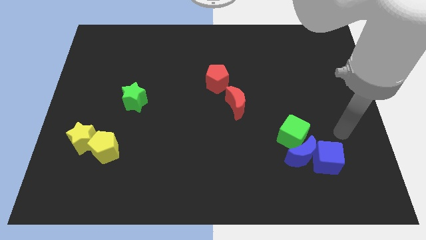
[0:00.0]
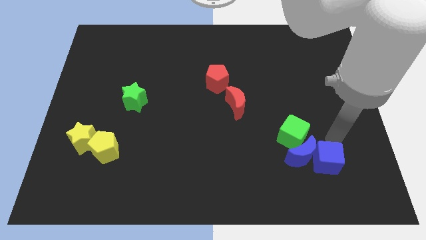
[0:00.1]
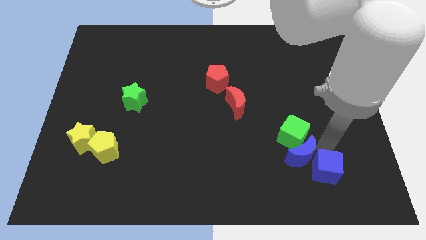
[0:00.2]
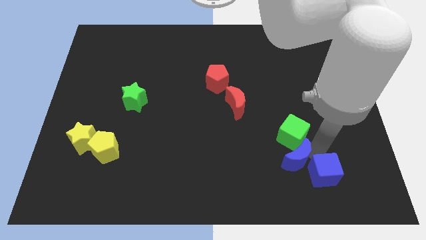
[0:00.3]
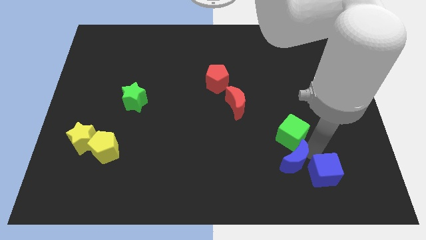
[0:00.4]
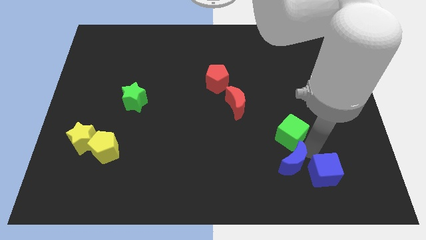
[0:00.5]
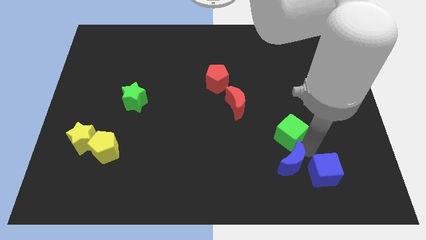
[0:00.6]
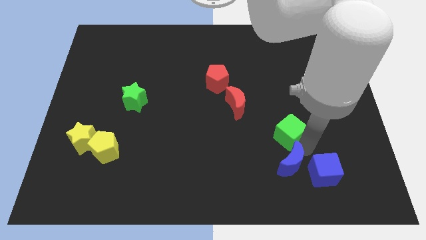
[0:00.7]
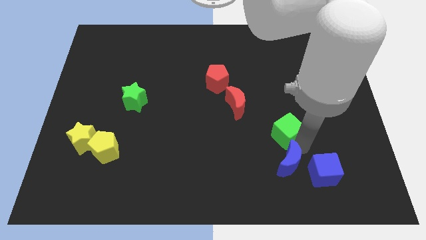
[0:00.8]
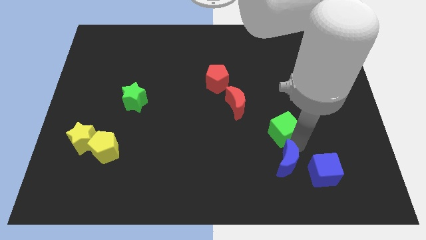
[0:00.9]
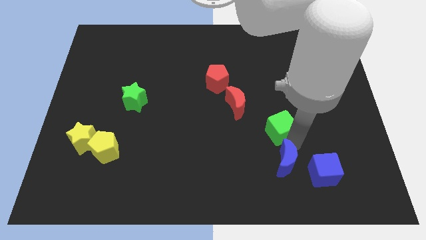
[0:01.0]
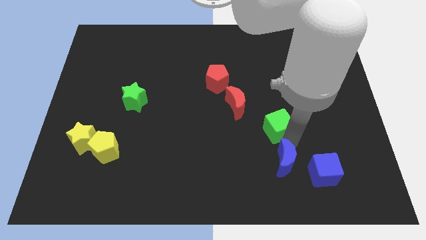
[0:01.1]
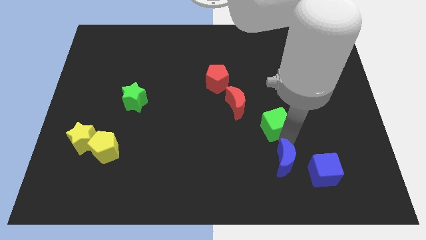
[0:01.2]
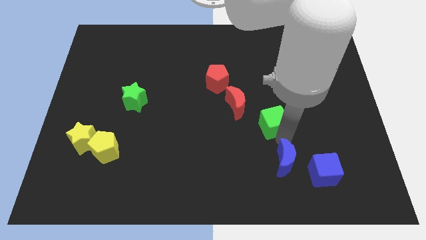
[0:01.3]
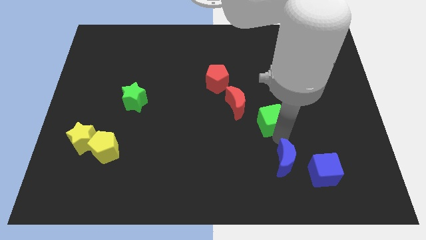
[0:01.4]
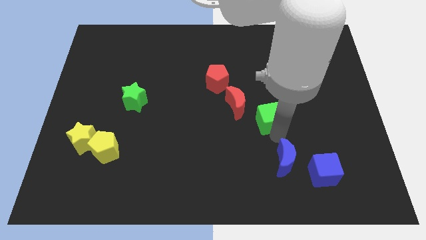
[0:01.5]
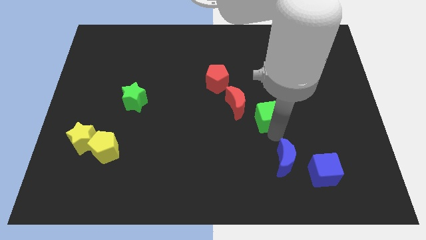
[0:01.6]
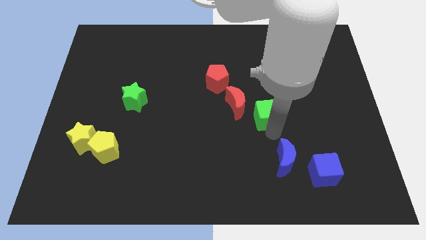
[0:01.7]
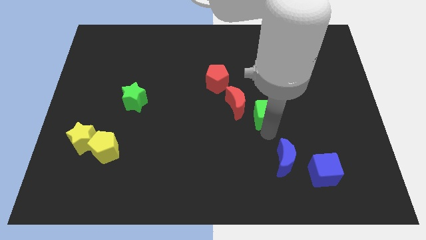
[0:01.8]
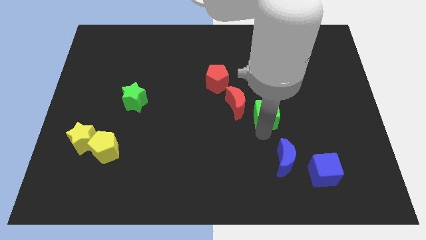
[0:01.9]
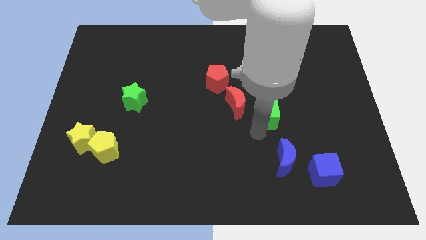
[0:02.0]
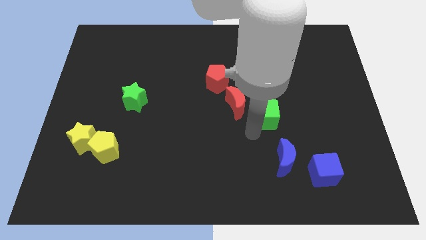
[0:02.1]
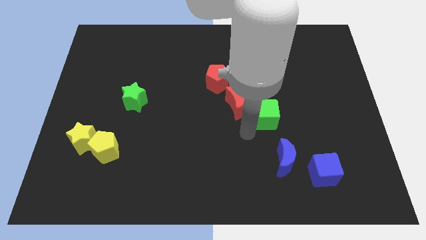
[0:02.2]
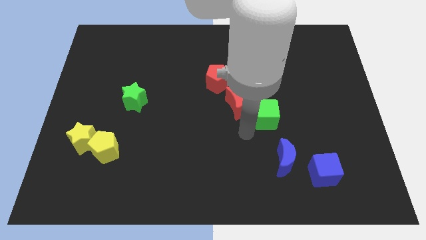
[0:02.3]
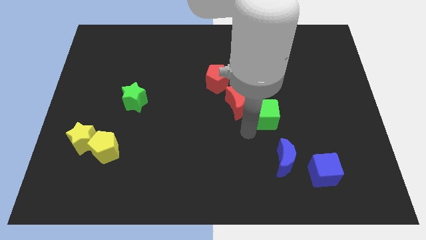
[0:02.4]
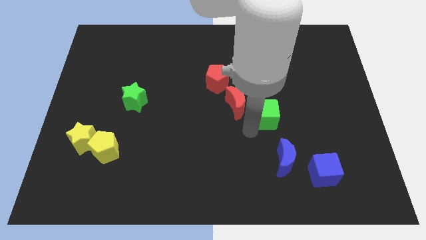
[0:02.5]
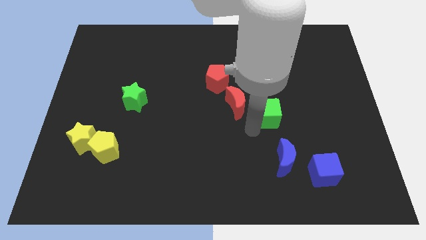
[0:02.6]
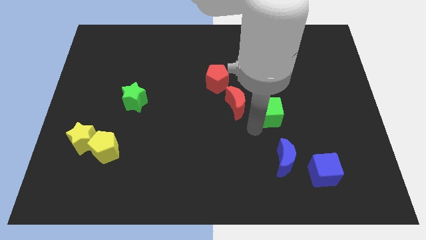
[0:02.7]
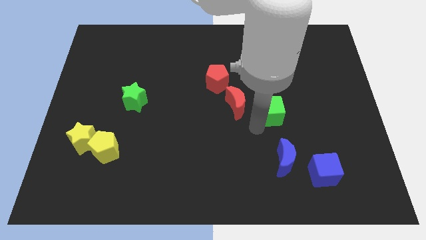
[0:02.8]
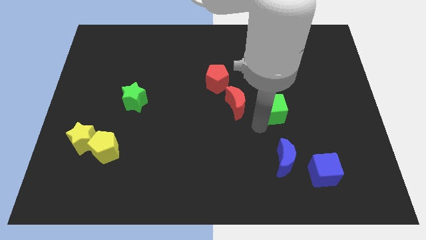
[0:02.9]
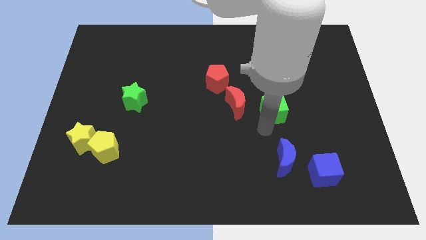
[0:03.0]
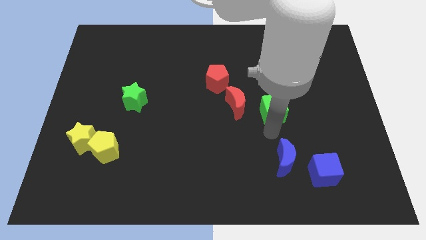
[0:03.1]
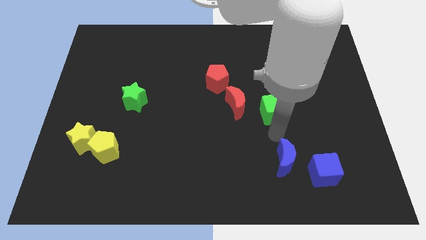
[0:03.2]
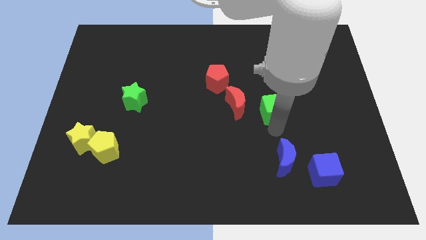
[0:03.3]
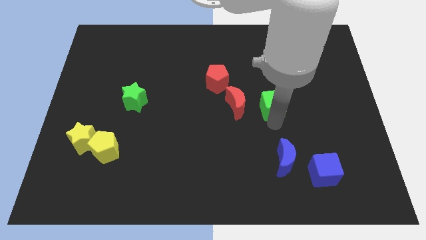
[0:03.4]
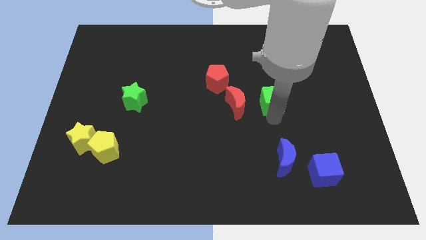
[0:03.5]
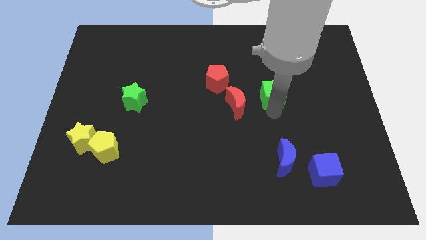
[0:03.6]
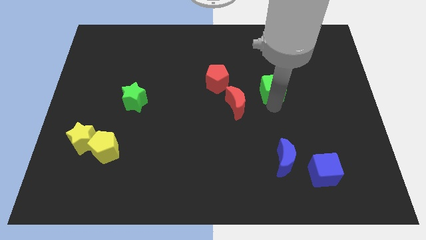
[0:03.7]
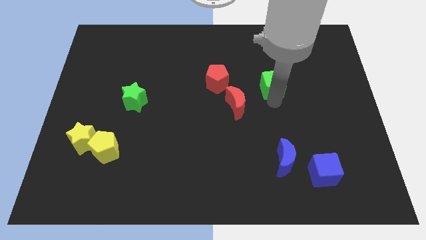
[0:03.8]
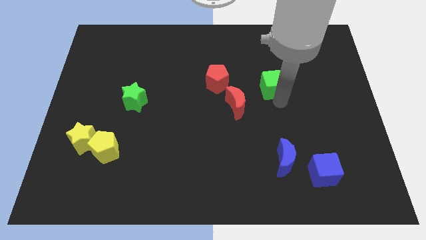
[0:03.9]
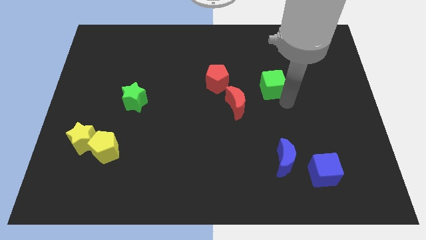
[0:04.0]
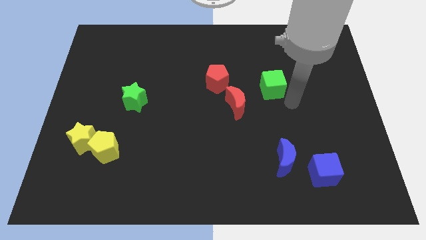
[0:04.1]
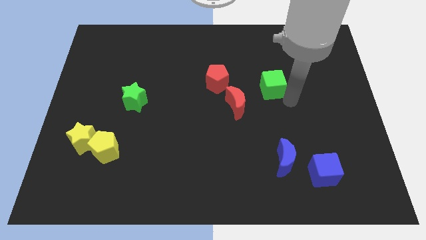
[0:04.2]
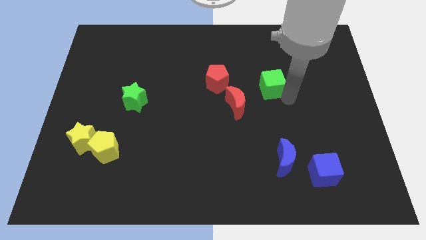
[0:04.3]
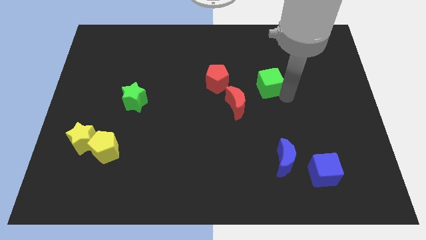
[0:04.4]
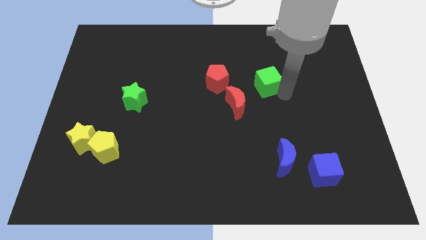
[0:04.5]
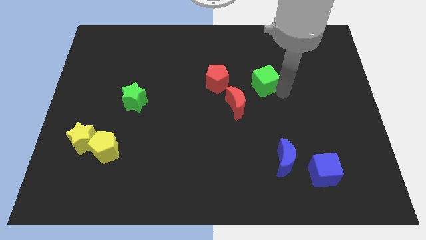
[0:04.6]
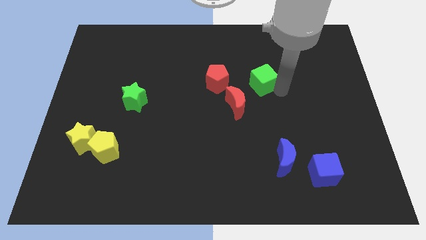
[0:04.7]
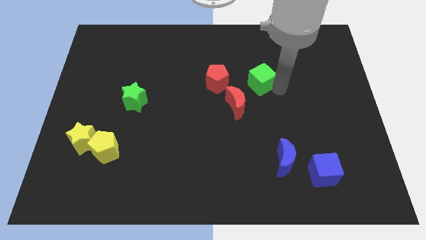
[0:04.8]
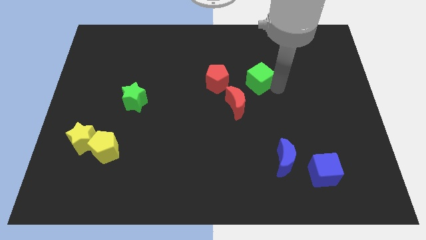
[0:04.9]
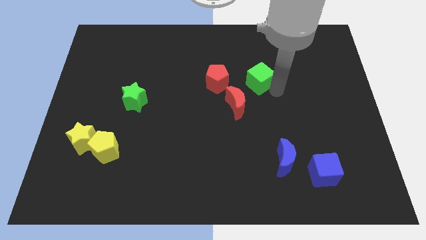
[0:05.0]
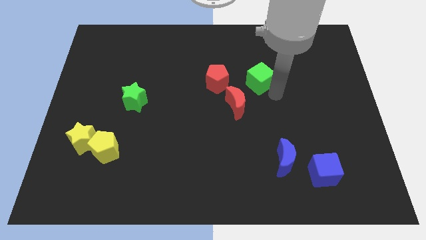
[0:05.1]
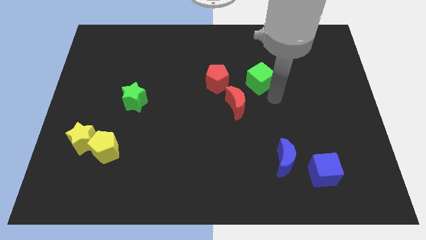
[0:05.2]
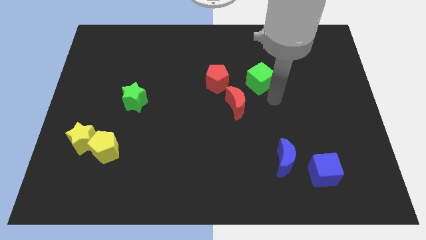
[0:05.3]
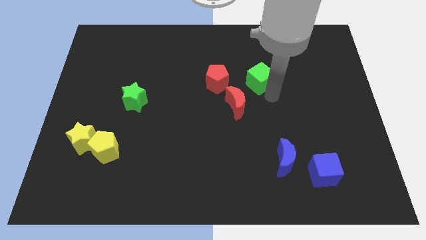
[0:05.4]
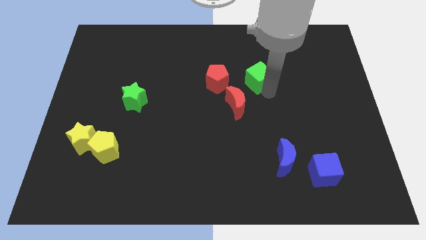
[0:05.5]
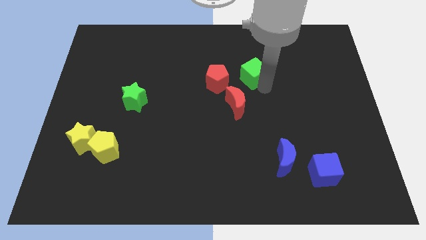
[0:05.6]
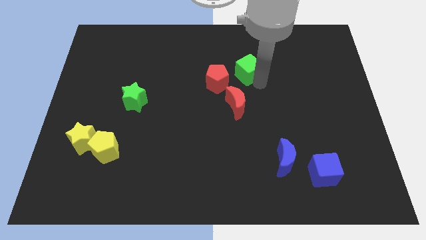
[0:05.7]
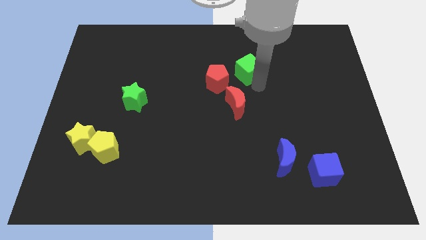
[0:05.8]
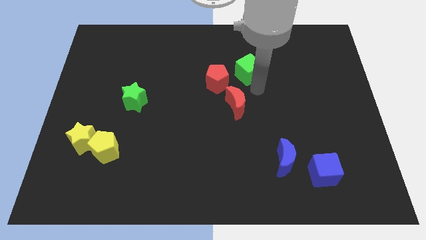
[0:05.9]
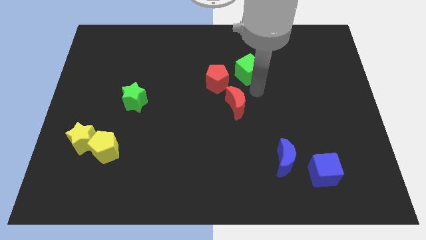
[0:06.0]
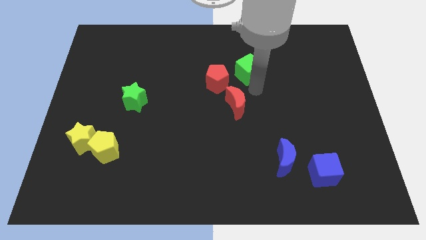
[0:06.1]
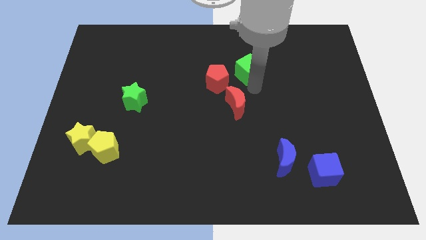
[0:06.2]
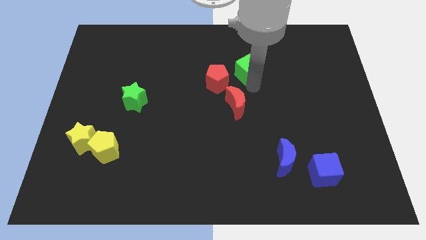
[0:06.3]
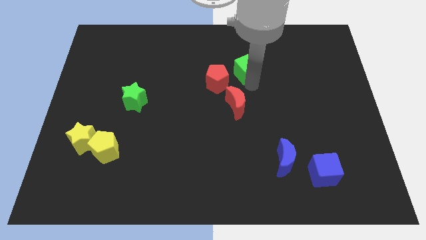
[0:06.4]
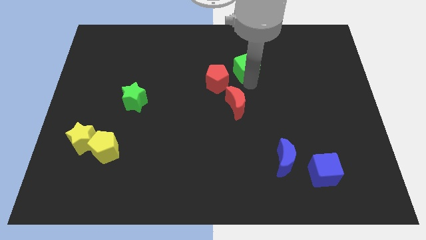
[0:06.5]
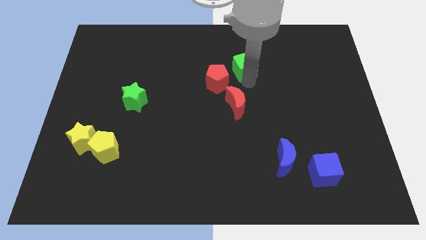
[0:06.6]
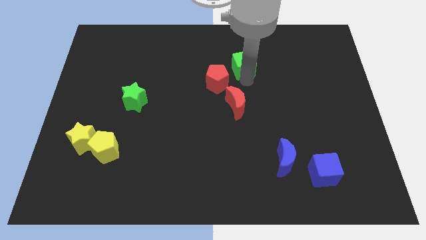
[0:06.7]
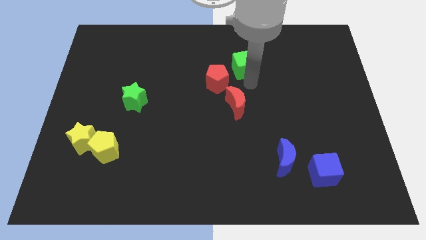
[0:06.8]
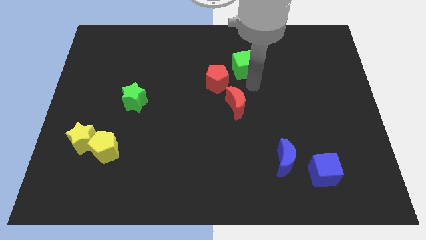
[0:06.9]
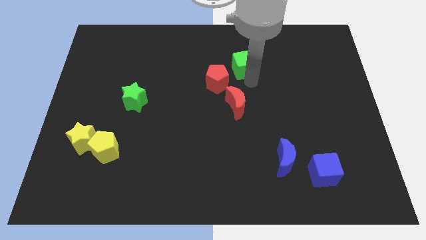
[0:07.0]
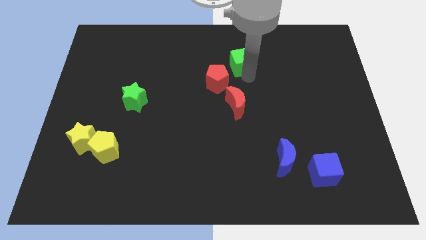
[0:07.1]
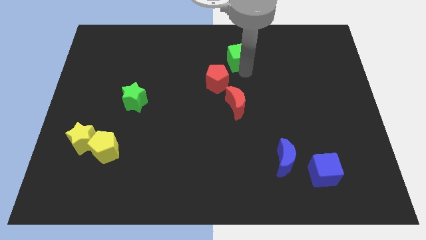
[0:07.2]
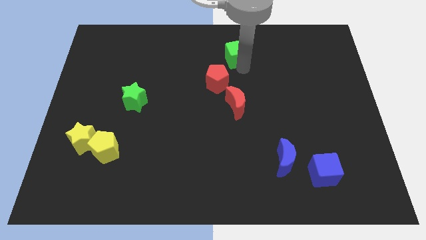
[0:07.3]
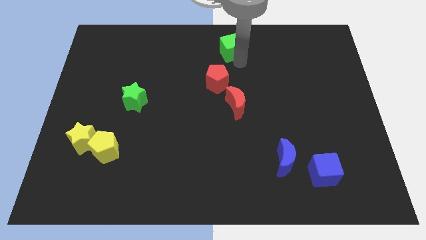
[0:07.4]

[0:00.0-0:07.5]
put the green cube to the towards your base
